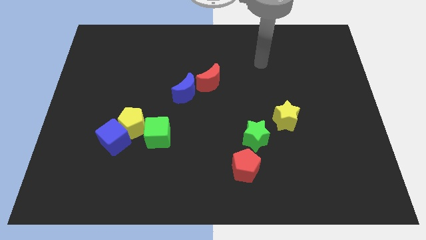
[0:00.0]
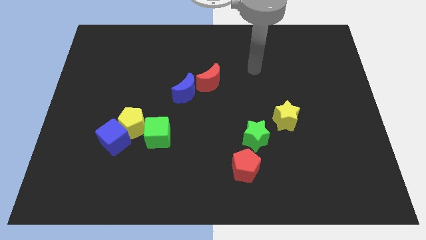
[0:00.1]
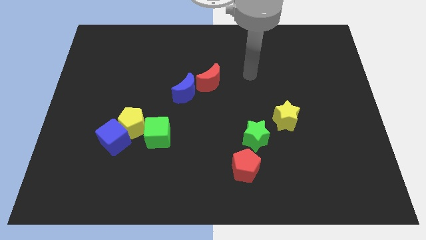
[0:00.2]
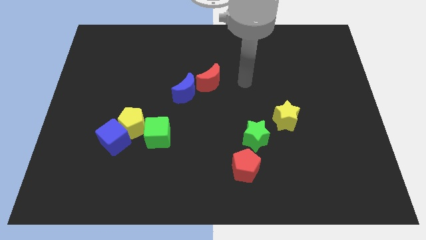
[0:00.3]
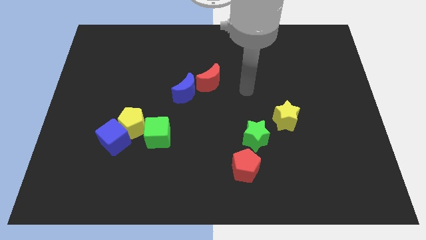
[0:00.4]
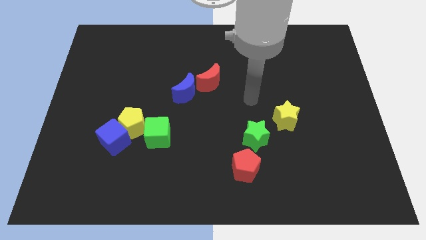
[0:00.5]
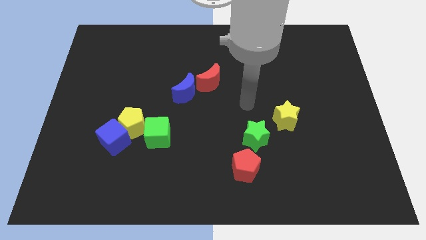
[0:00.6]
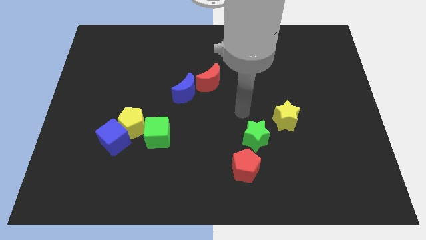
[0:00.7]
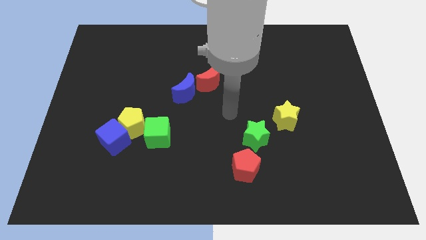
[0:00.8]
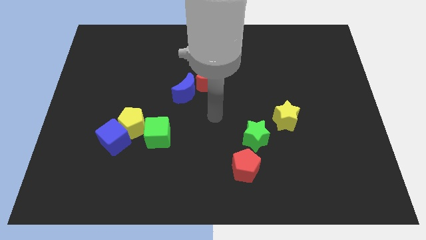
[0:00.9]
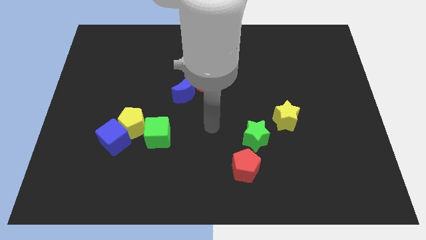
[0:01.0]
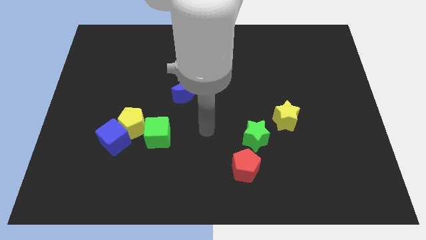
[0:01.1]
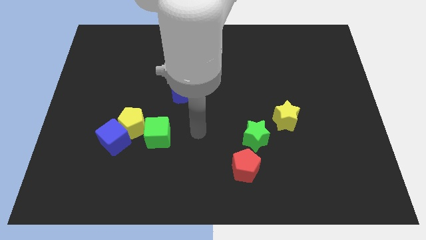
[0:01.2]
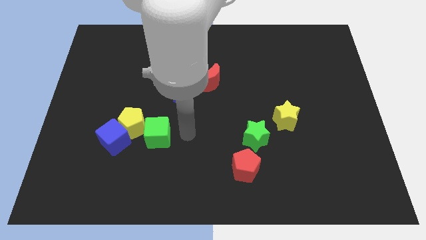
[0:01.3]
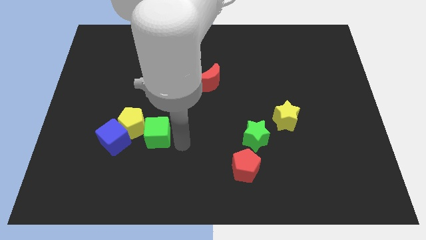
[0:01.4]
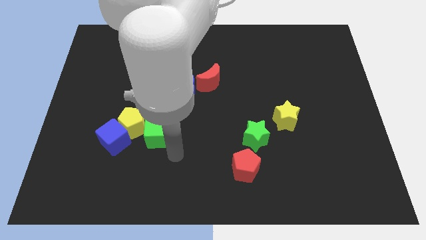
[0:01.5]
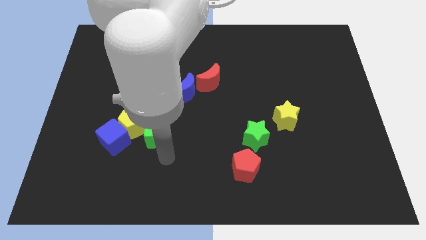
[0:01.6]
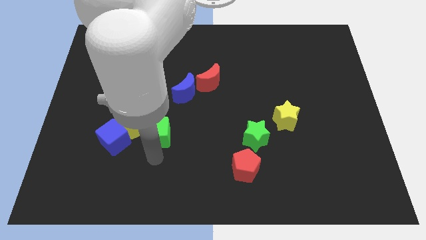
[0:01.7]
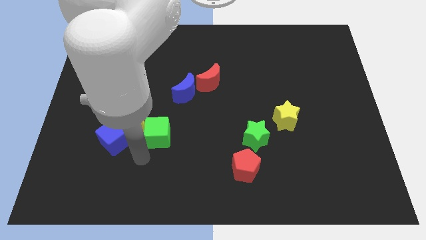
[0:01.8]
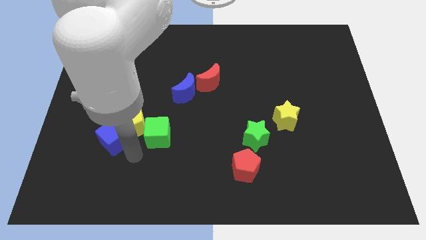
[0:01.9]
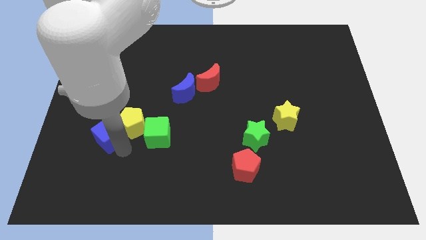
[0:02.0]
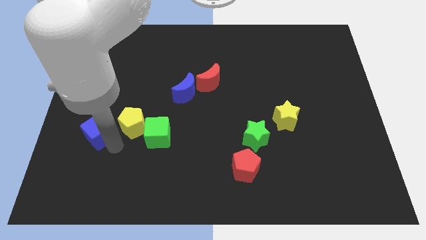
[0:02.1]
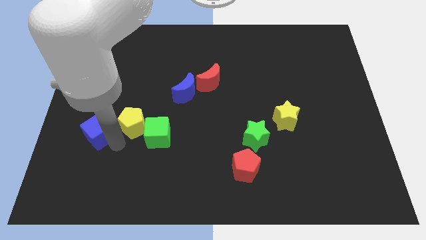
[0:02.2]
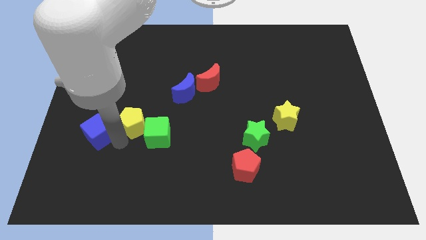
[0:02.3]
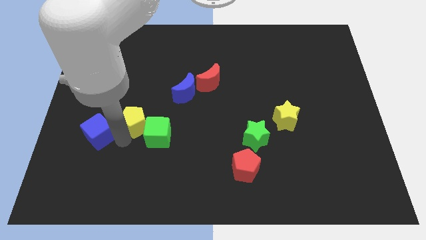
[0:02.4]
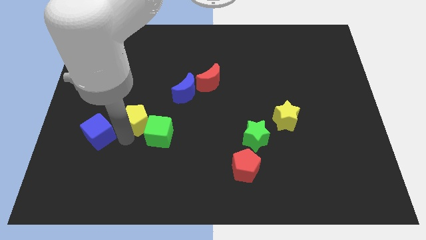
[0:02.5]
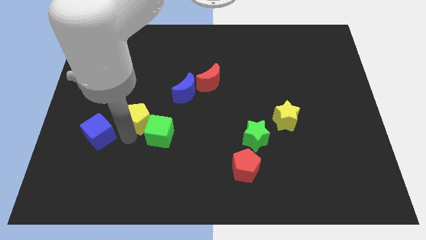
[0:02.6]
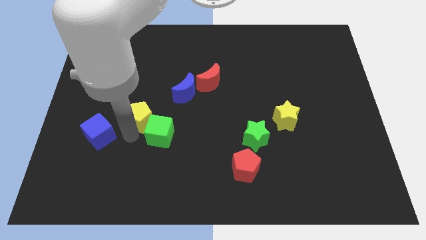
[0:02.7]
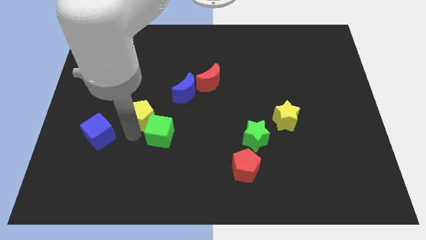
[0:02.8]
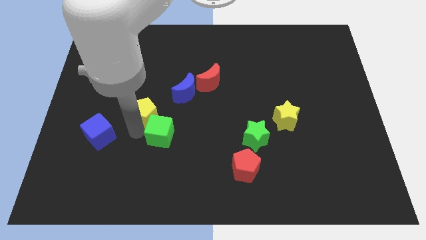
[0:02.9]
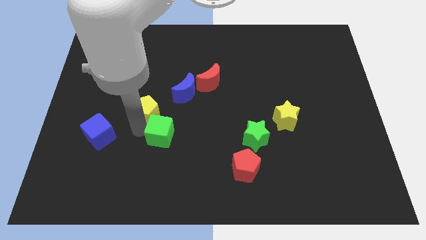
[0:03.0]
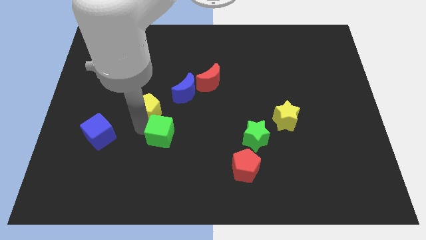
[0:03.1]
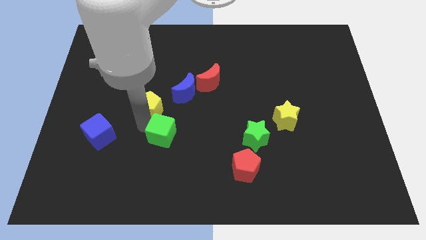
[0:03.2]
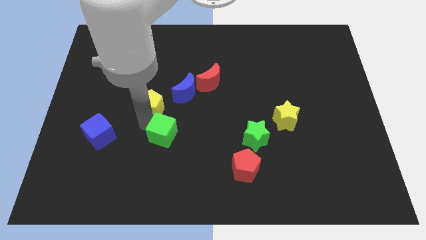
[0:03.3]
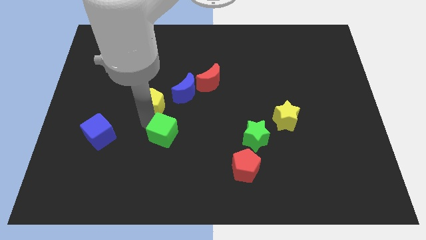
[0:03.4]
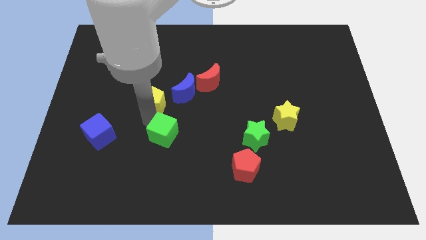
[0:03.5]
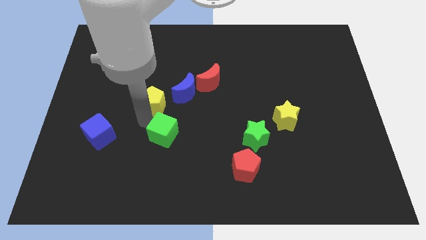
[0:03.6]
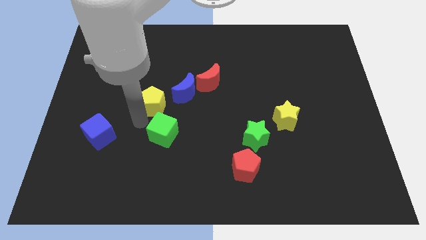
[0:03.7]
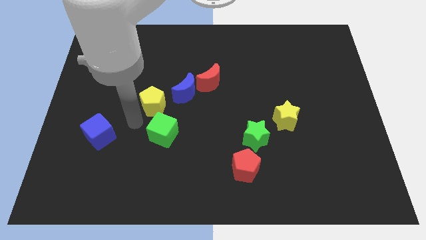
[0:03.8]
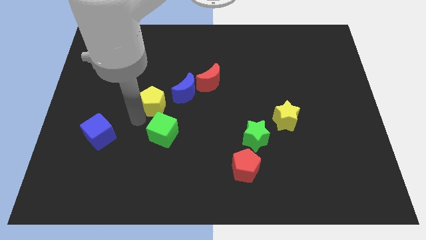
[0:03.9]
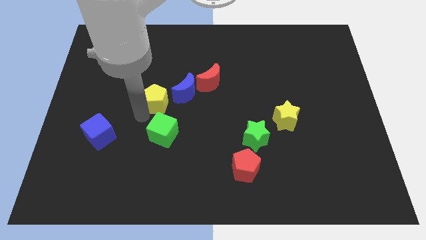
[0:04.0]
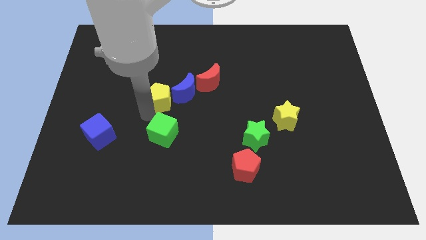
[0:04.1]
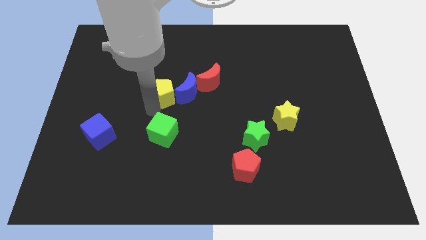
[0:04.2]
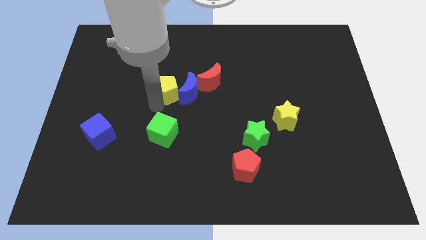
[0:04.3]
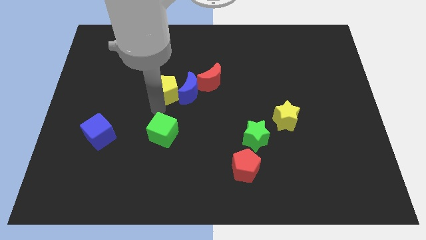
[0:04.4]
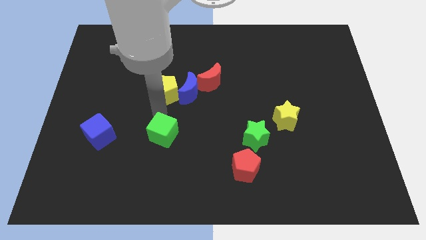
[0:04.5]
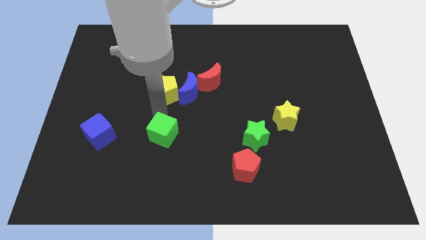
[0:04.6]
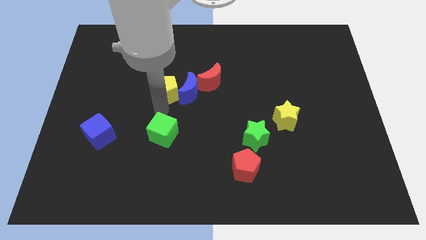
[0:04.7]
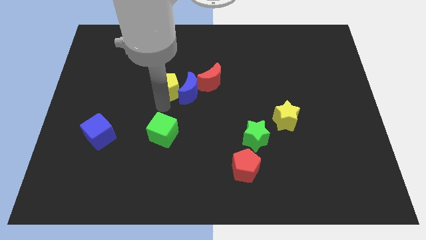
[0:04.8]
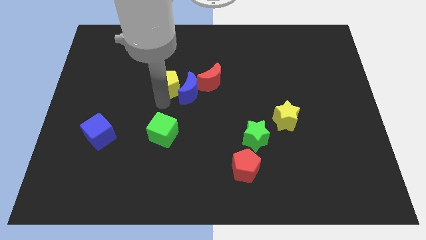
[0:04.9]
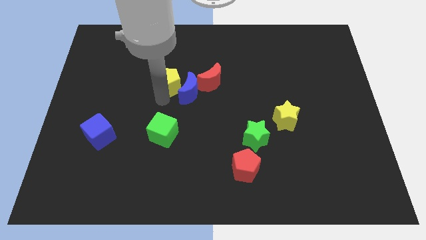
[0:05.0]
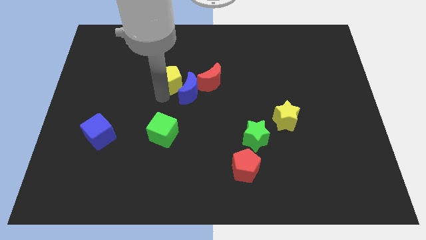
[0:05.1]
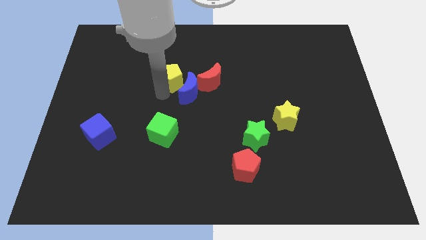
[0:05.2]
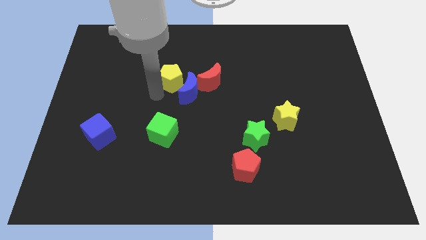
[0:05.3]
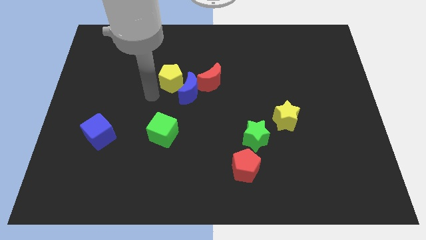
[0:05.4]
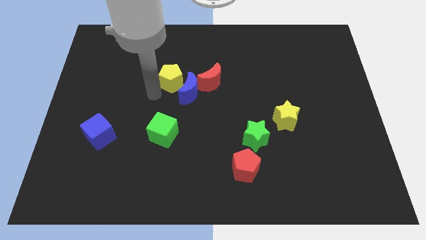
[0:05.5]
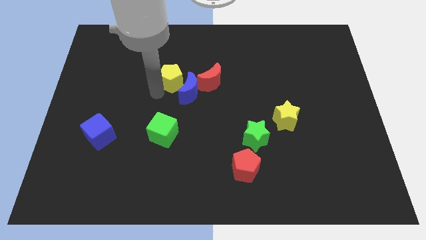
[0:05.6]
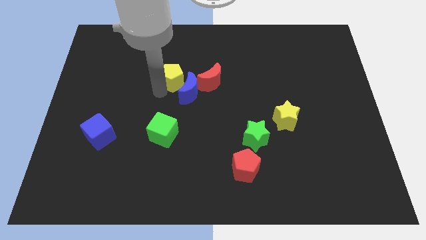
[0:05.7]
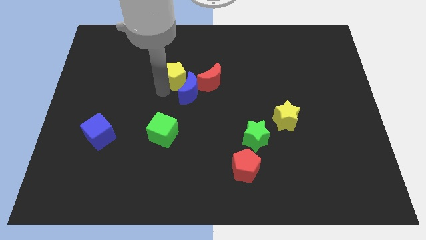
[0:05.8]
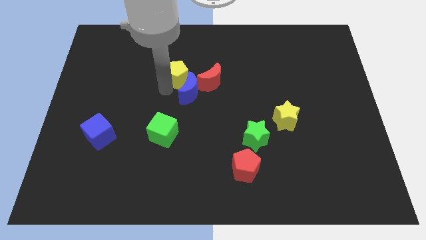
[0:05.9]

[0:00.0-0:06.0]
put the yellow pentagon to the top left of the red moon

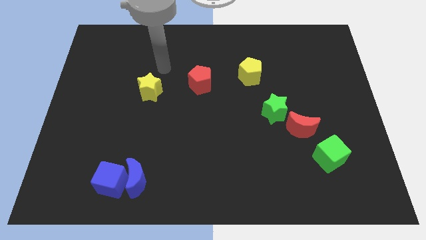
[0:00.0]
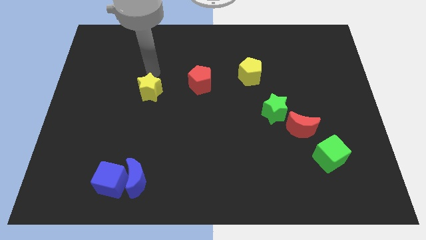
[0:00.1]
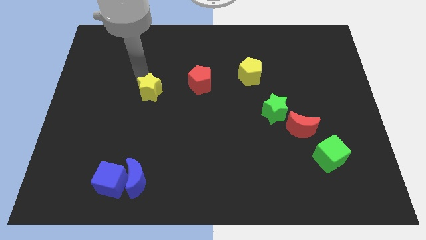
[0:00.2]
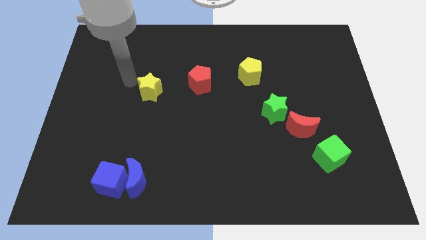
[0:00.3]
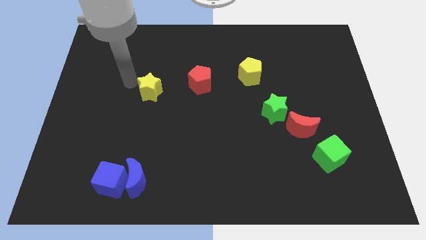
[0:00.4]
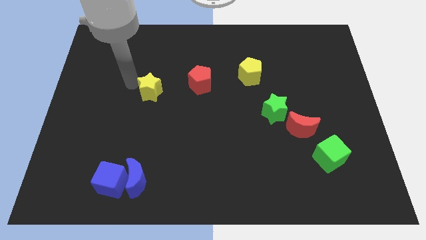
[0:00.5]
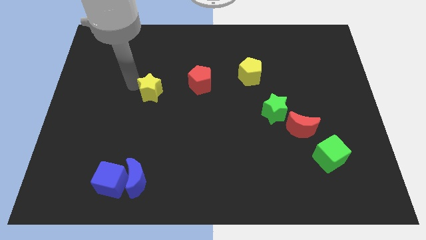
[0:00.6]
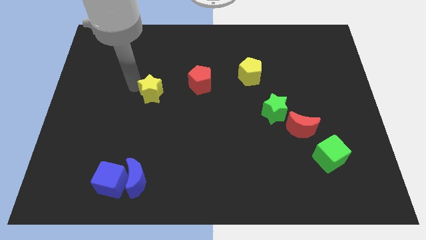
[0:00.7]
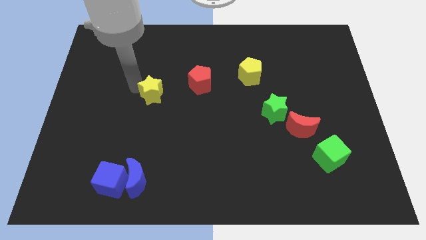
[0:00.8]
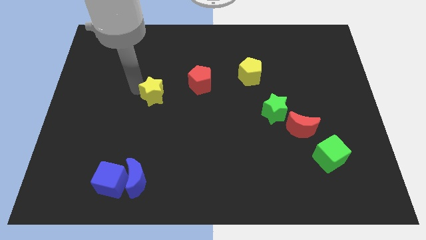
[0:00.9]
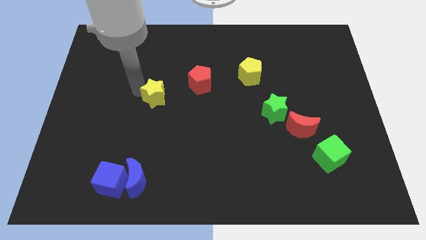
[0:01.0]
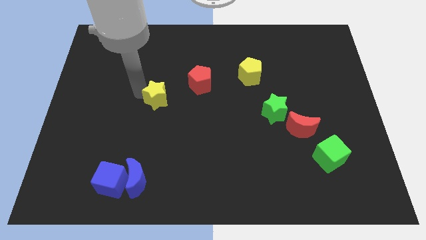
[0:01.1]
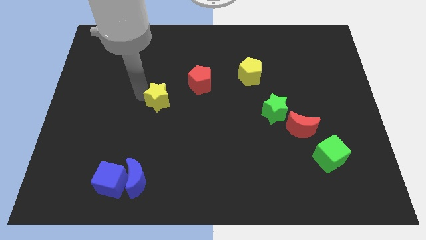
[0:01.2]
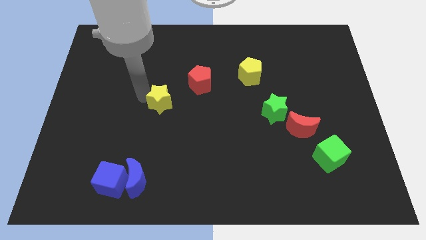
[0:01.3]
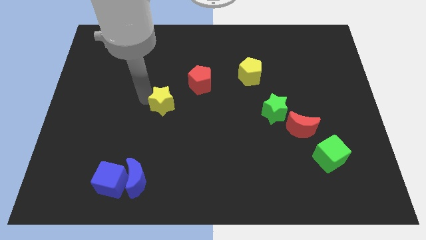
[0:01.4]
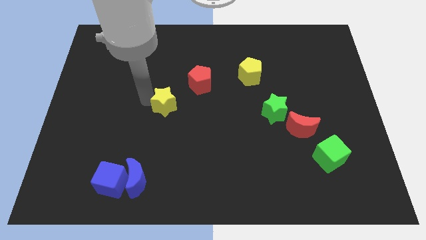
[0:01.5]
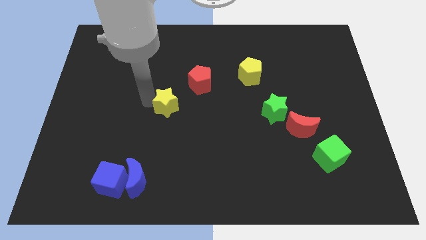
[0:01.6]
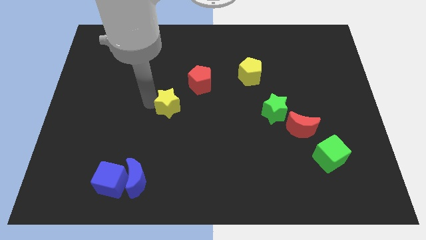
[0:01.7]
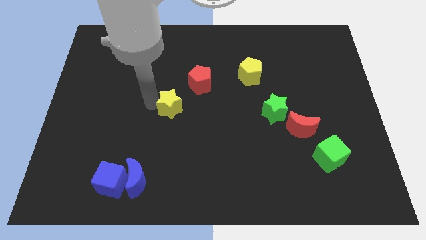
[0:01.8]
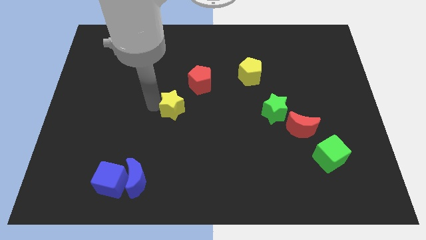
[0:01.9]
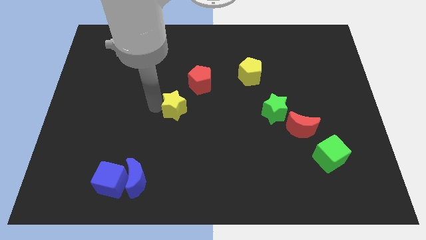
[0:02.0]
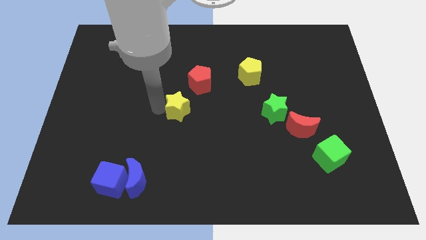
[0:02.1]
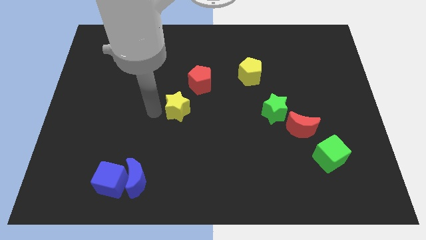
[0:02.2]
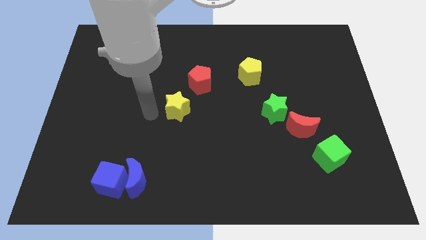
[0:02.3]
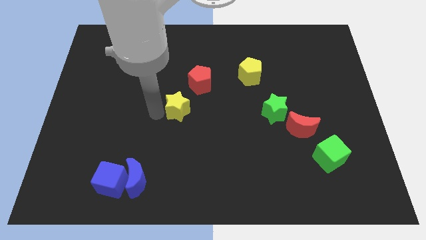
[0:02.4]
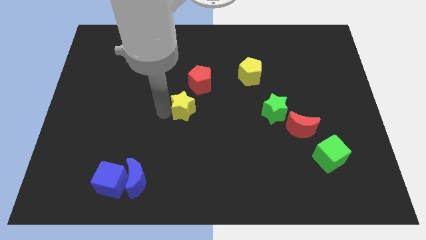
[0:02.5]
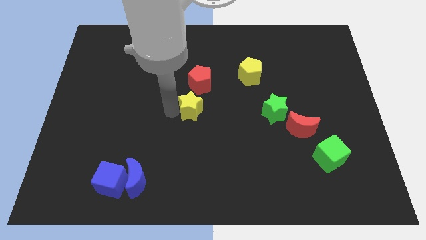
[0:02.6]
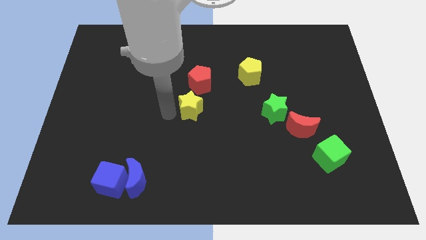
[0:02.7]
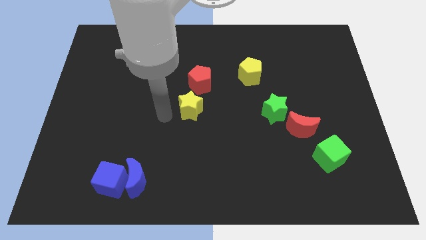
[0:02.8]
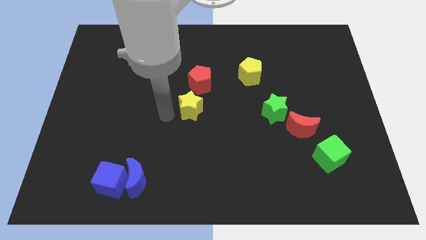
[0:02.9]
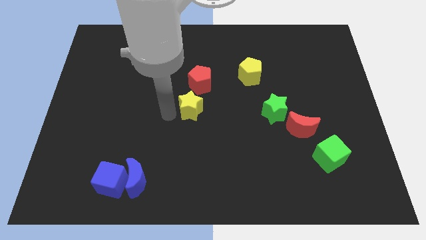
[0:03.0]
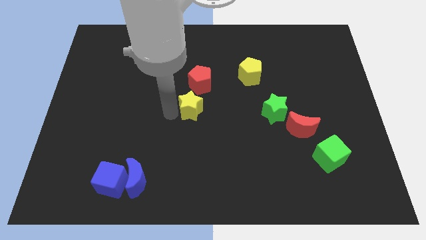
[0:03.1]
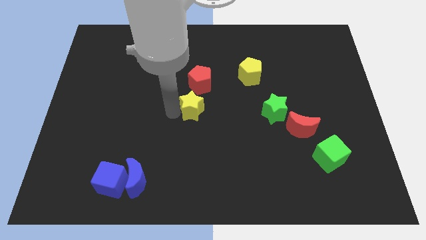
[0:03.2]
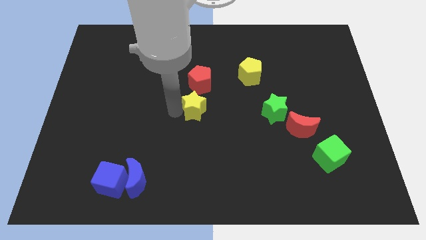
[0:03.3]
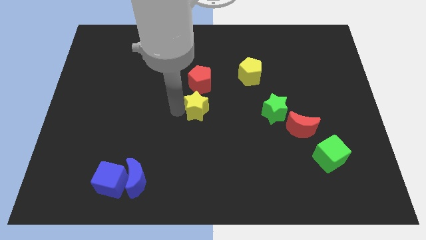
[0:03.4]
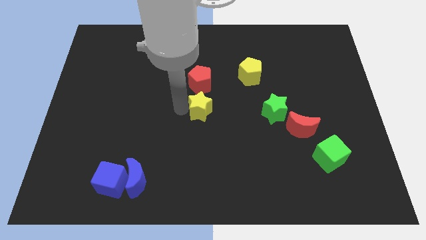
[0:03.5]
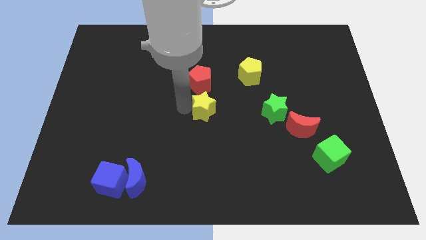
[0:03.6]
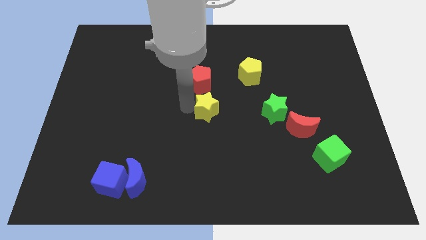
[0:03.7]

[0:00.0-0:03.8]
slide the yellow star left of the green star
